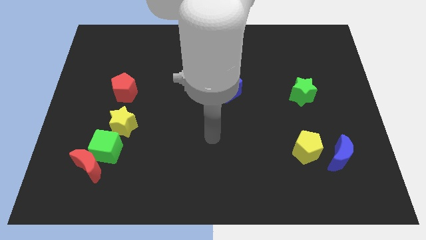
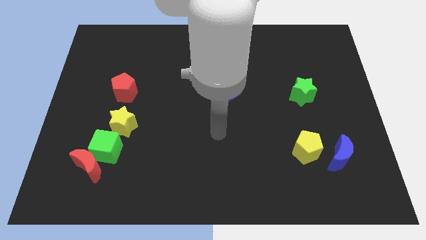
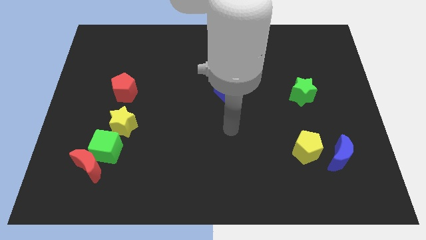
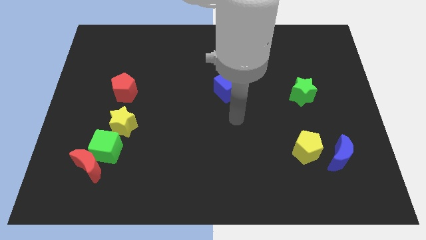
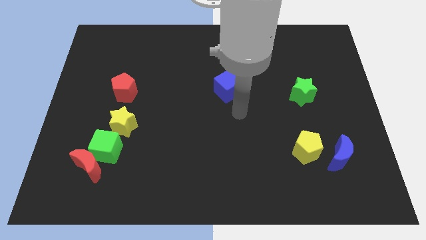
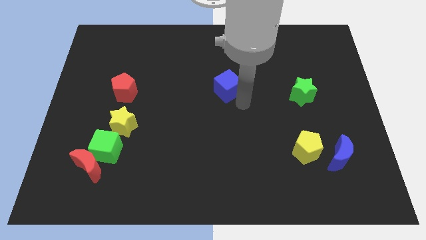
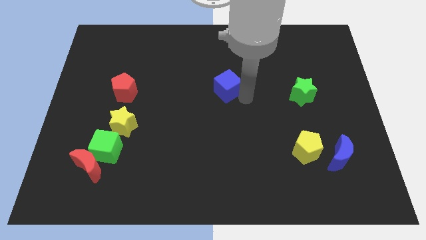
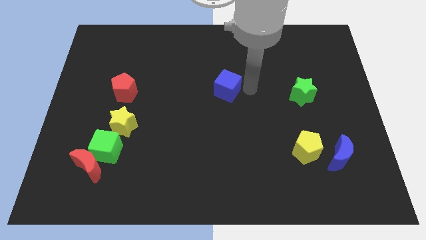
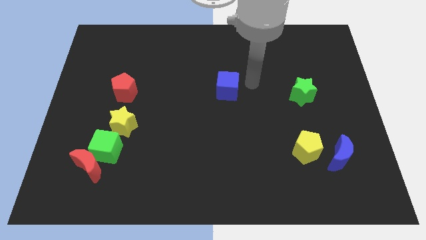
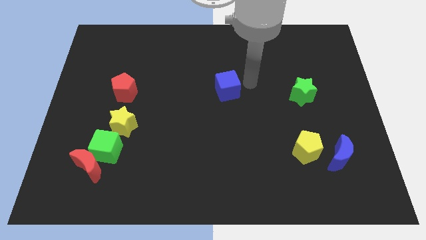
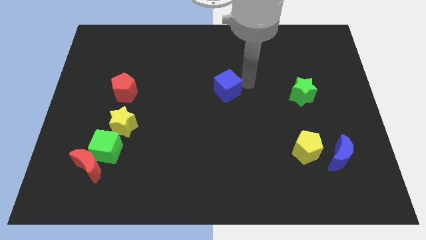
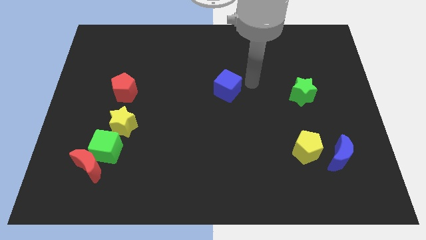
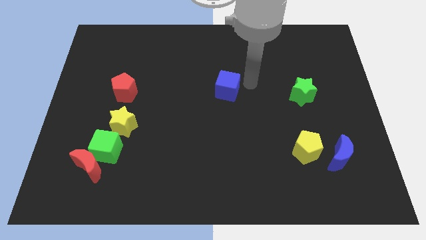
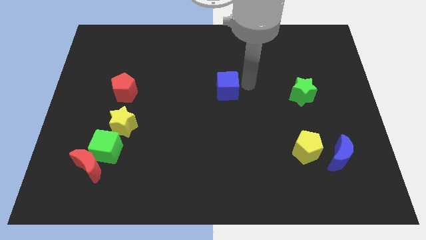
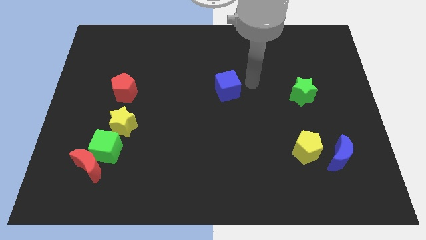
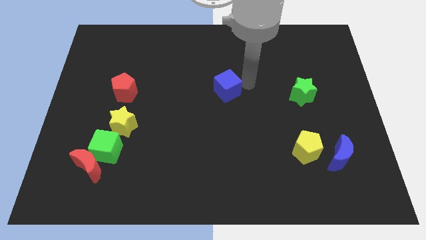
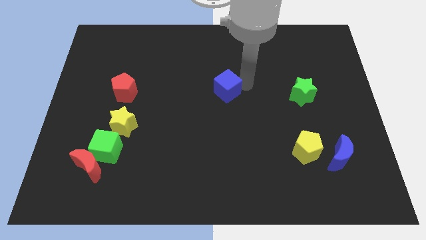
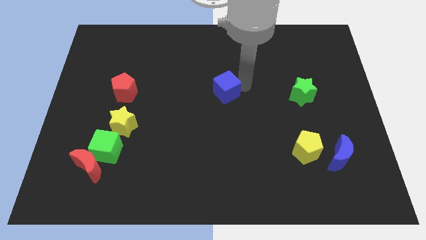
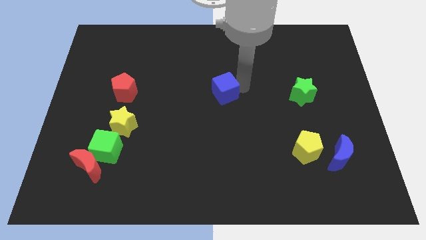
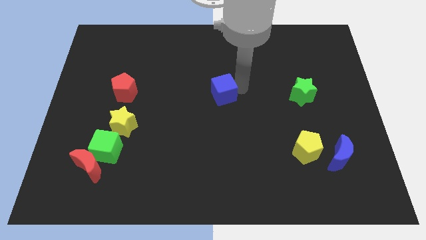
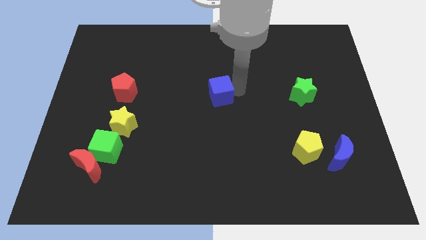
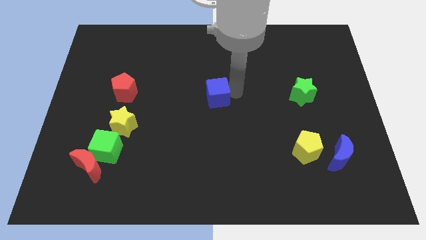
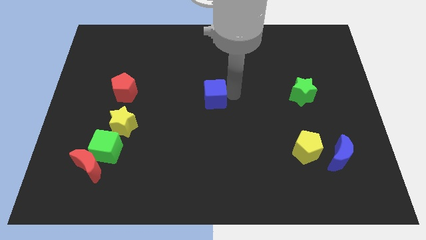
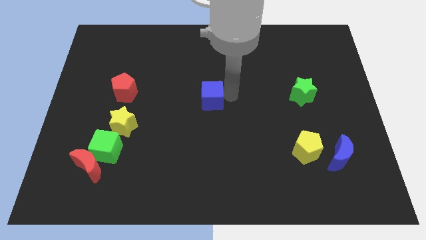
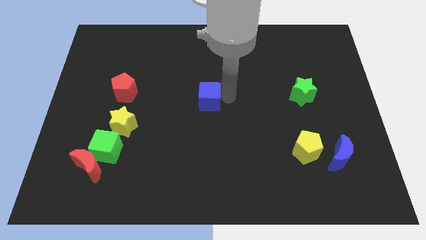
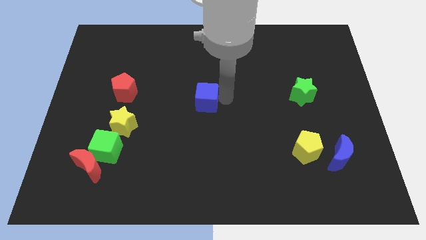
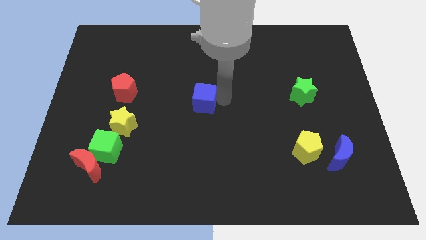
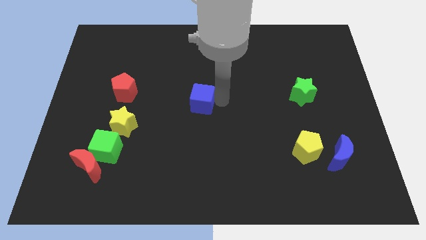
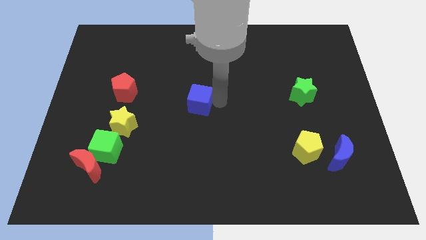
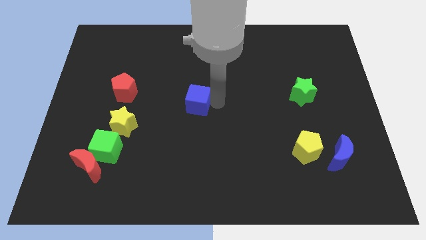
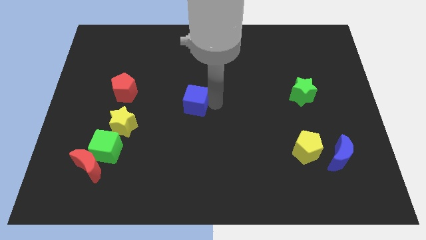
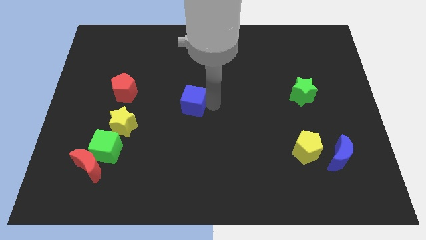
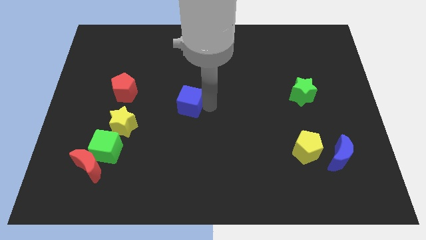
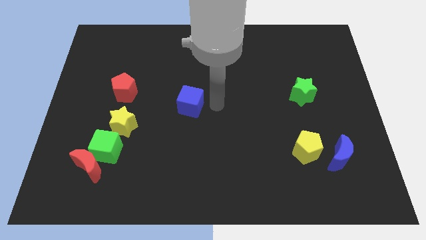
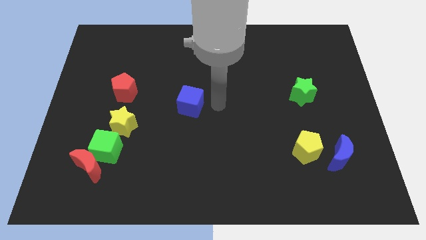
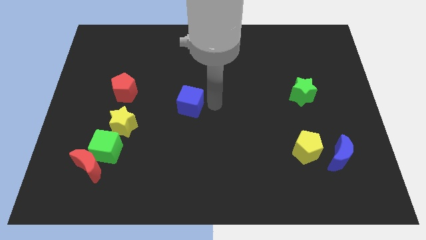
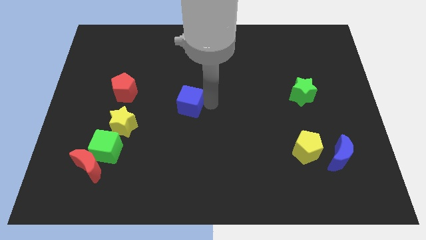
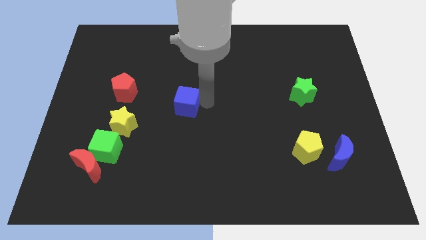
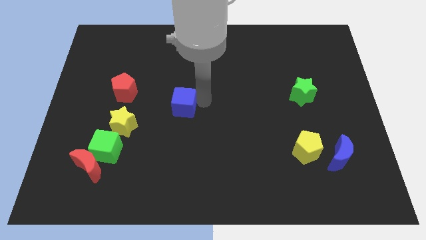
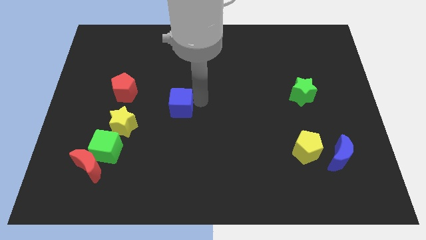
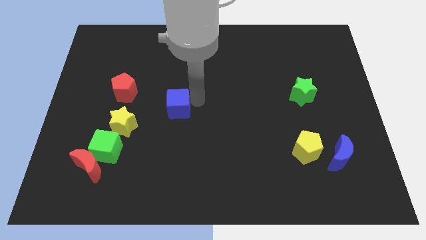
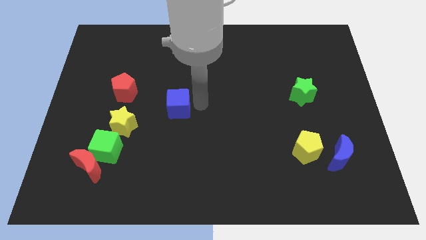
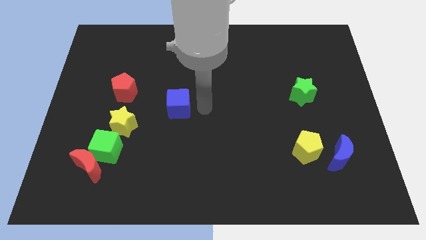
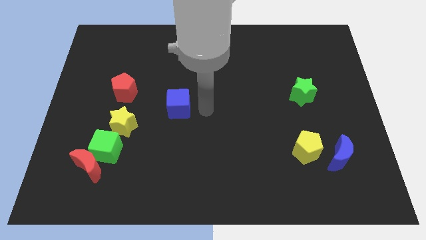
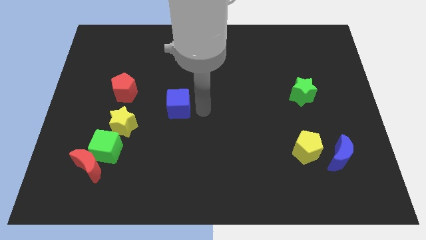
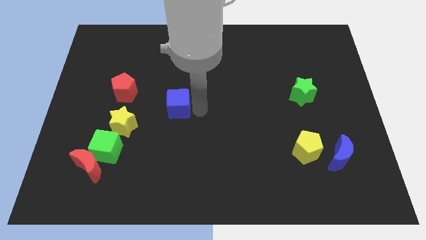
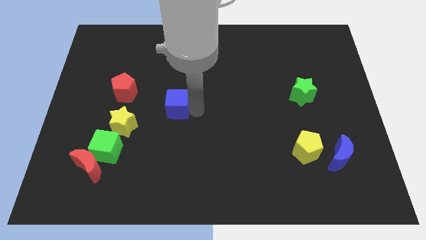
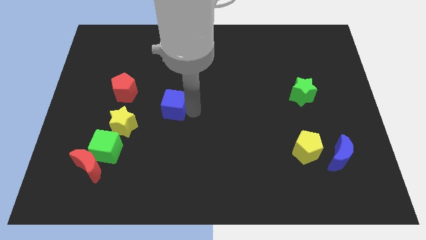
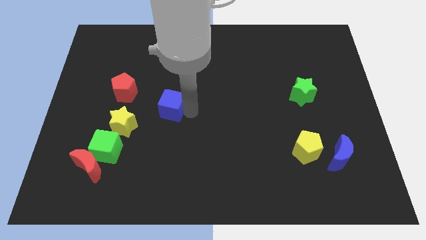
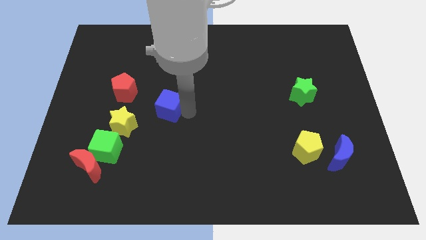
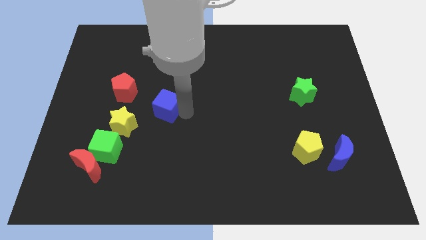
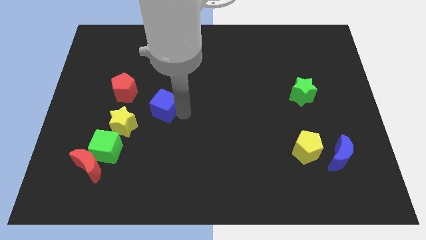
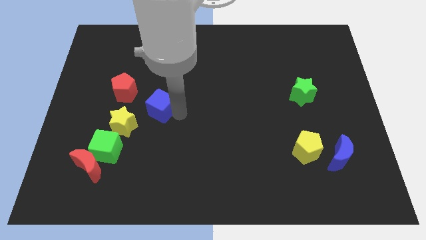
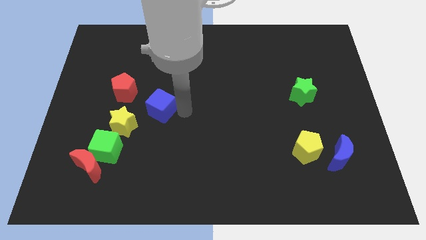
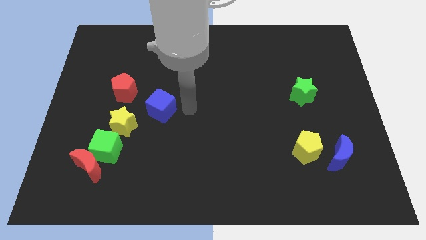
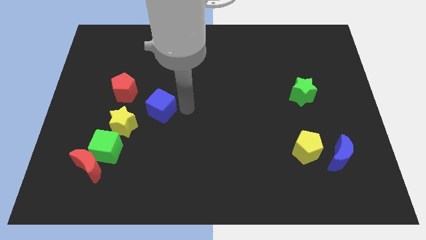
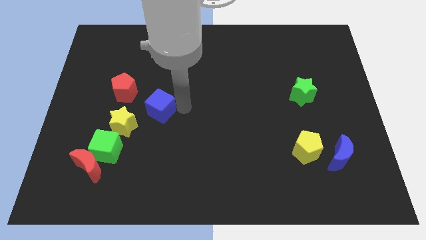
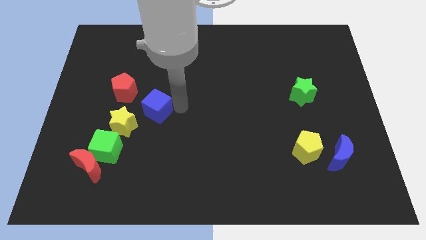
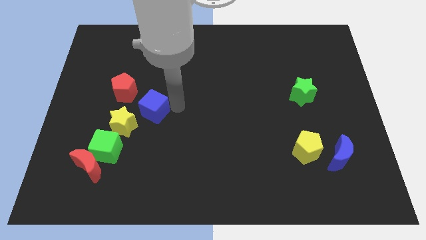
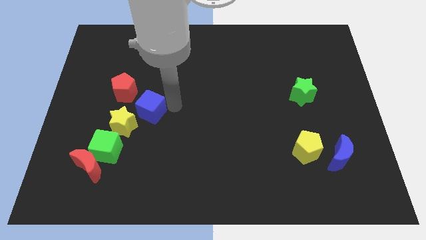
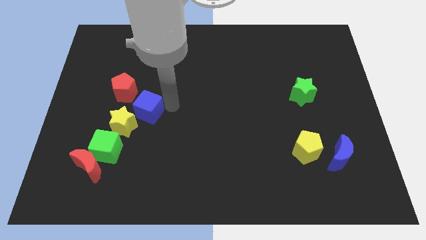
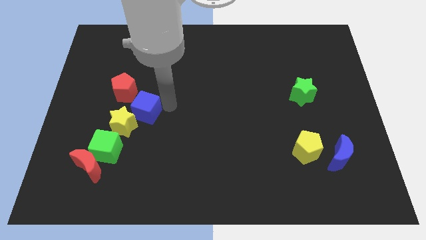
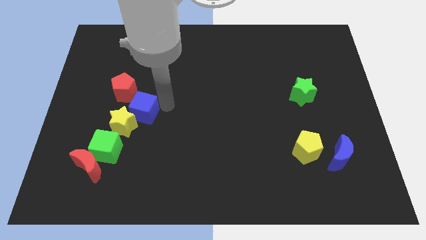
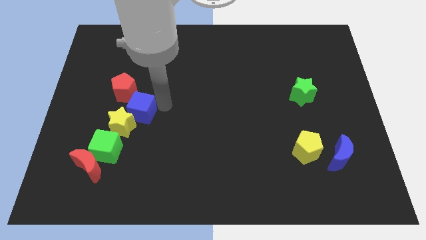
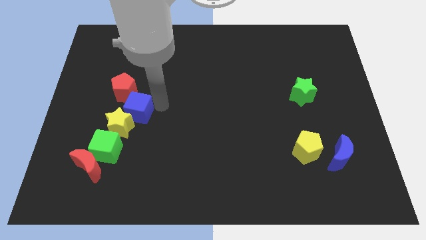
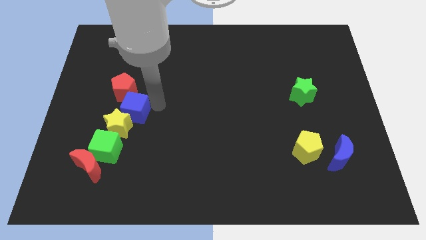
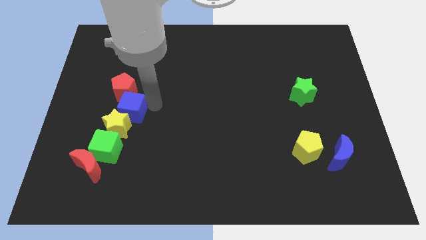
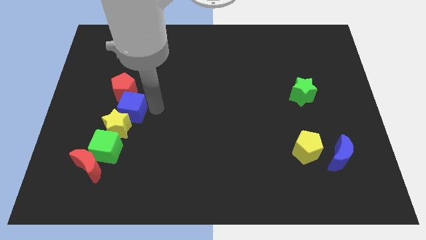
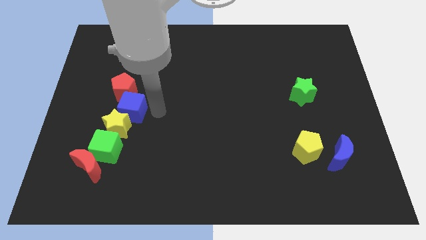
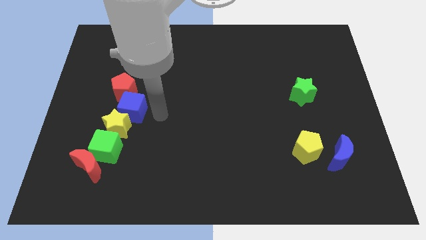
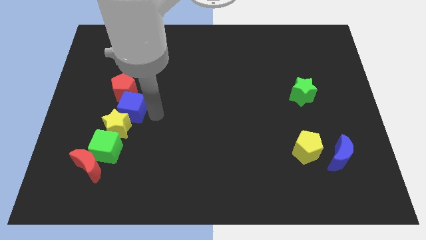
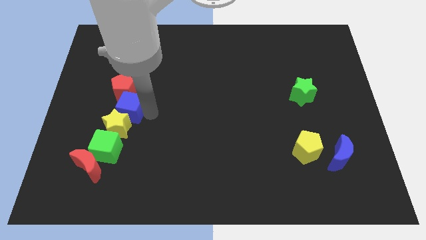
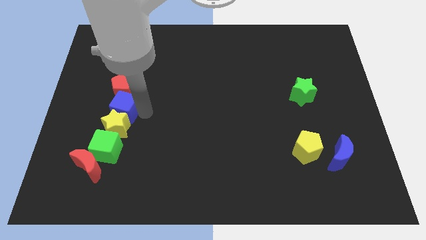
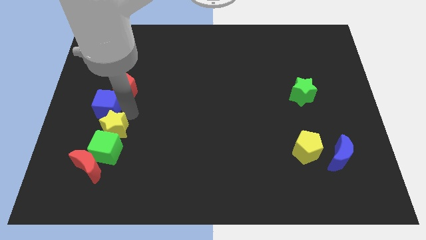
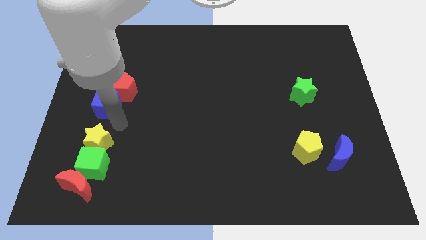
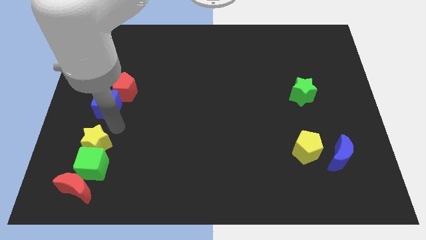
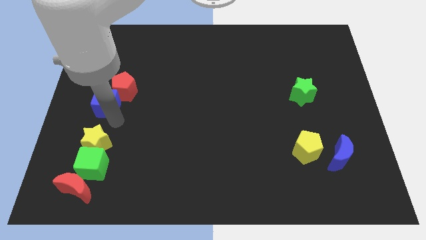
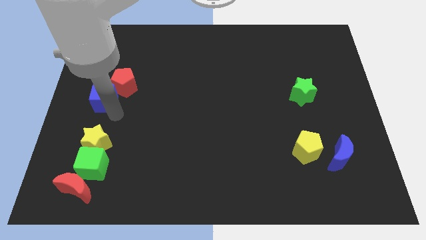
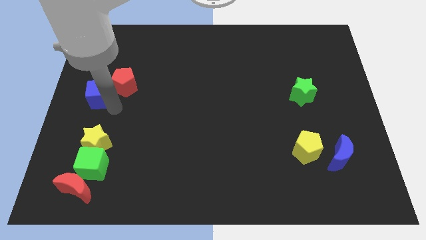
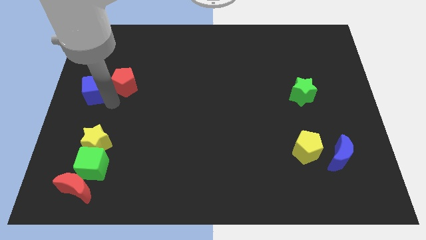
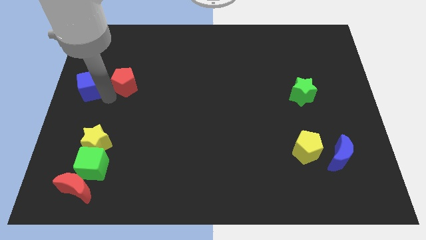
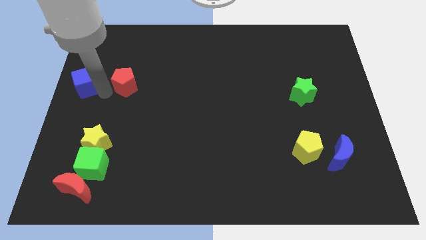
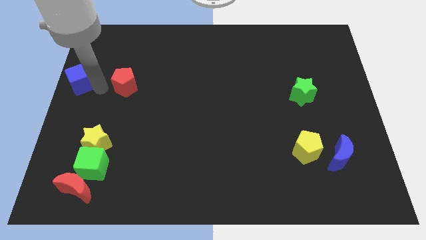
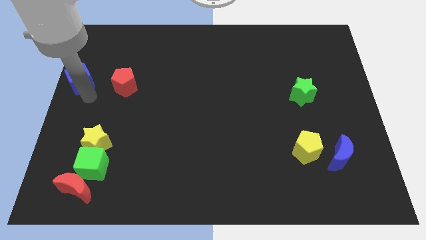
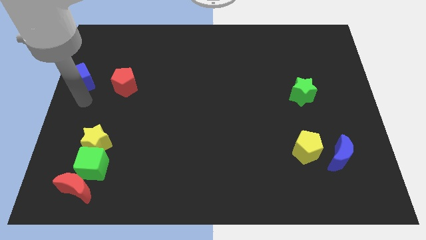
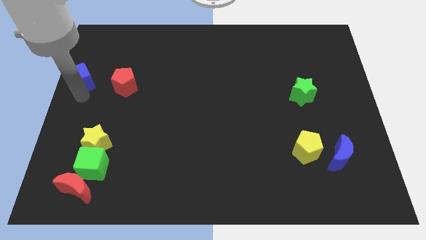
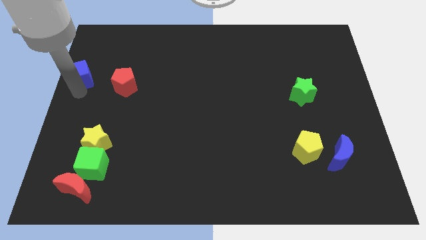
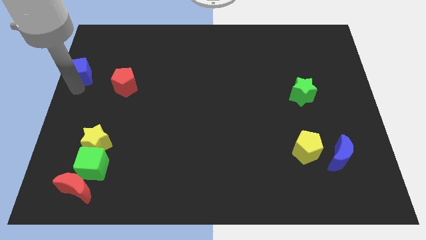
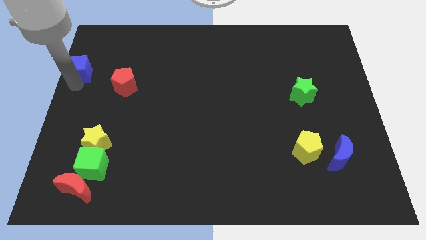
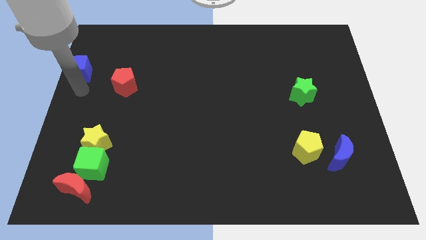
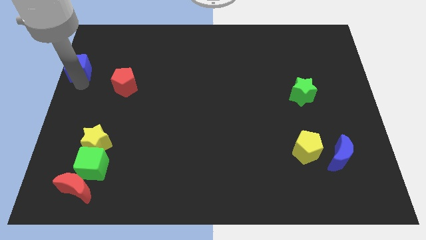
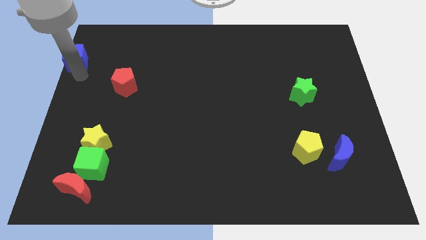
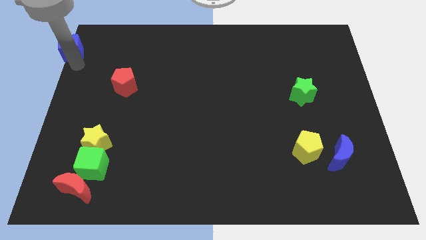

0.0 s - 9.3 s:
slide the blue cube to the upper left corner
